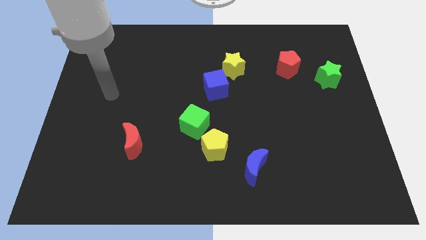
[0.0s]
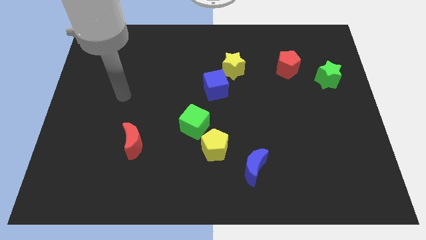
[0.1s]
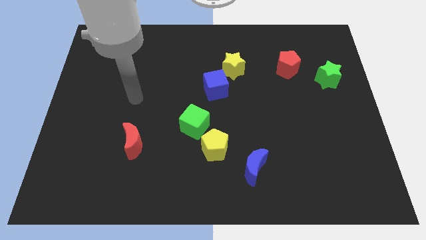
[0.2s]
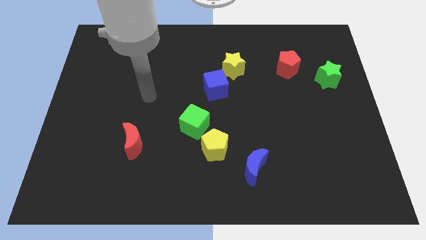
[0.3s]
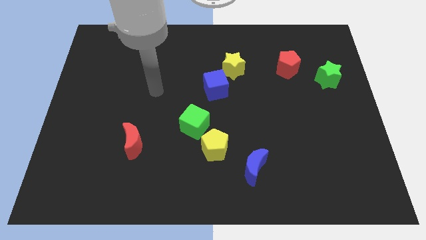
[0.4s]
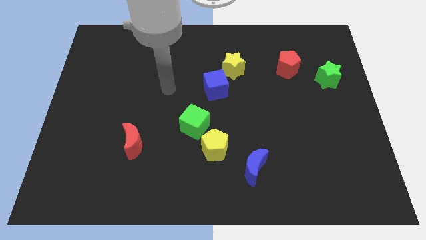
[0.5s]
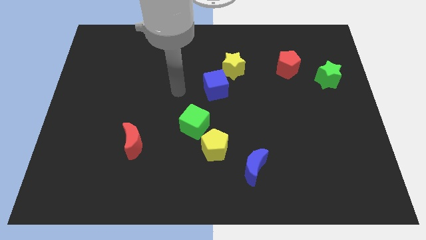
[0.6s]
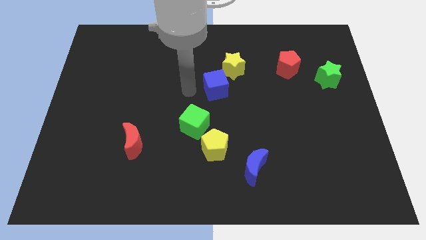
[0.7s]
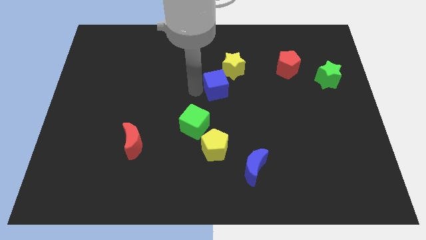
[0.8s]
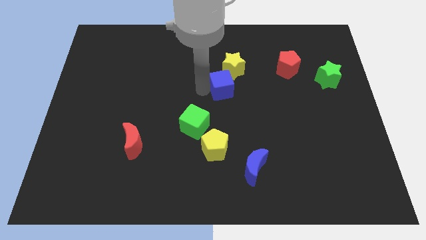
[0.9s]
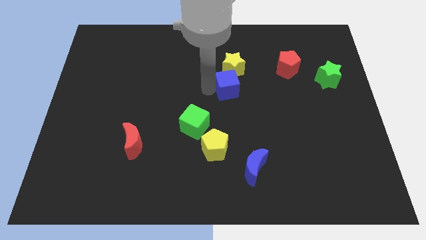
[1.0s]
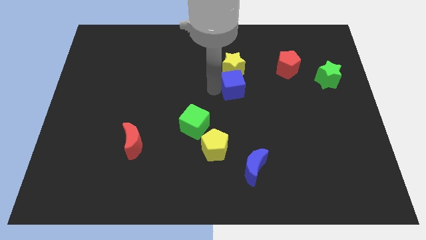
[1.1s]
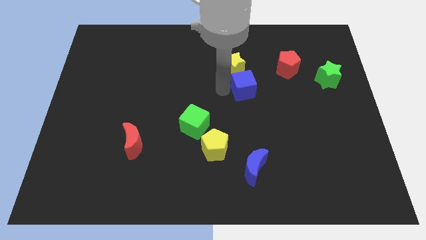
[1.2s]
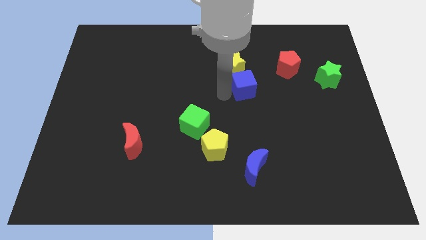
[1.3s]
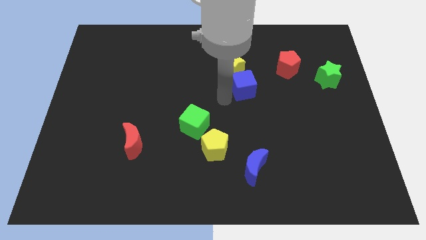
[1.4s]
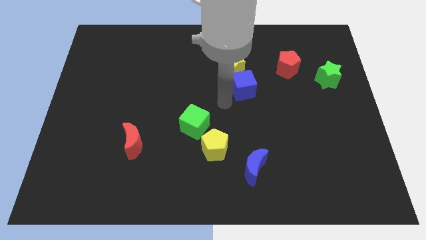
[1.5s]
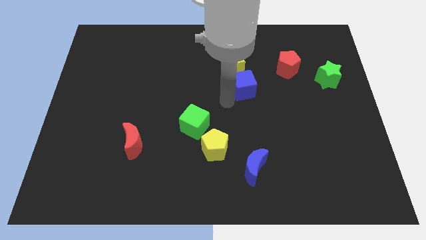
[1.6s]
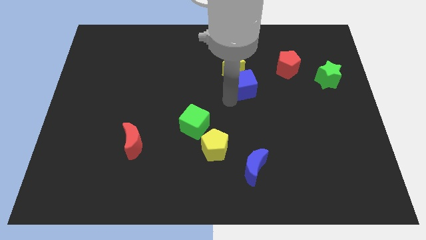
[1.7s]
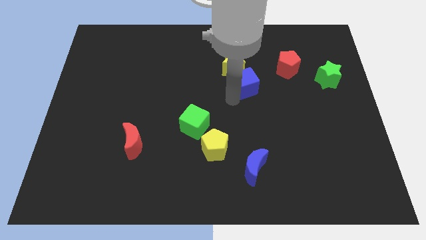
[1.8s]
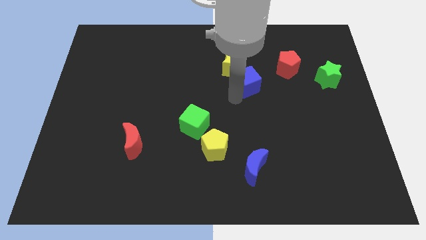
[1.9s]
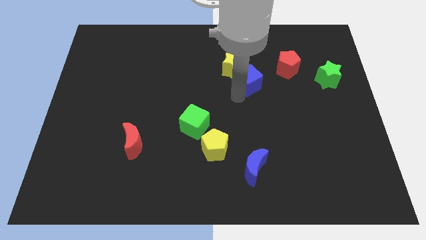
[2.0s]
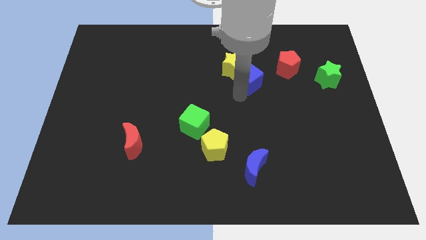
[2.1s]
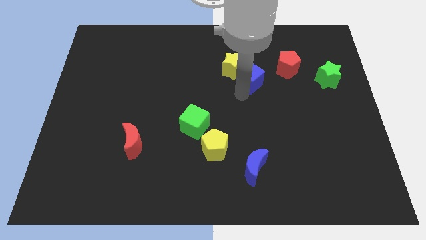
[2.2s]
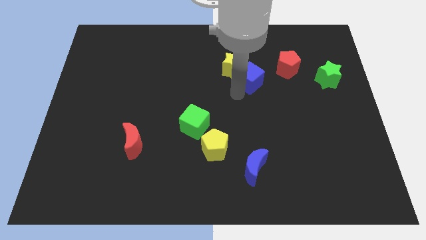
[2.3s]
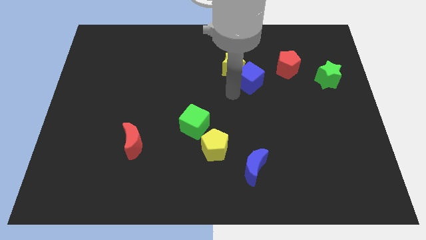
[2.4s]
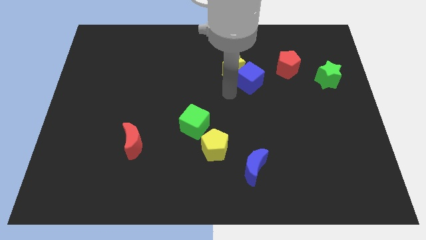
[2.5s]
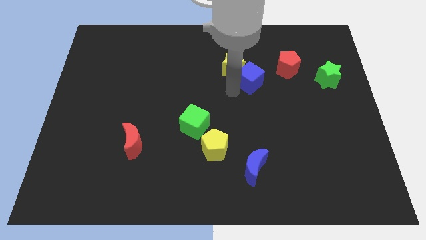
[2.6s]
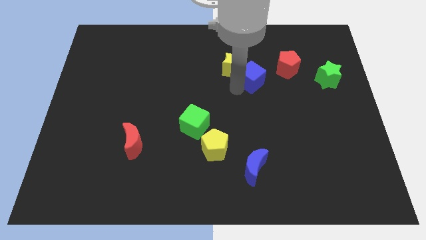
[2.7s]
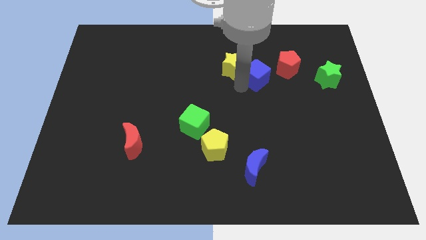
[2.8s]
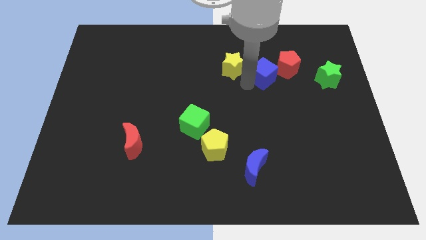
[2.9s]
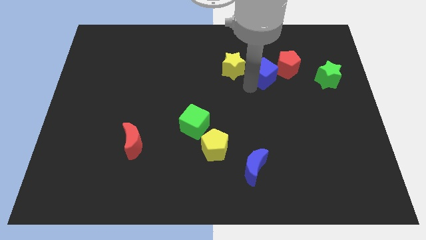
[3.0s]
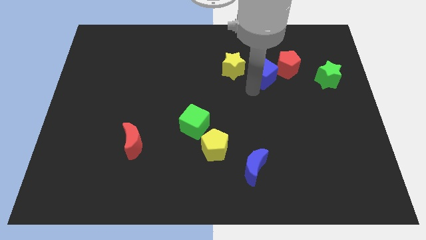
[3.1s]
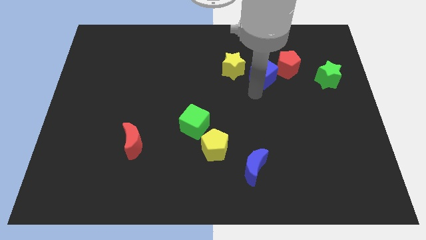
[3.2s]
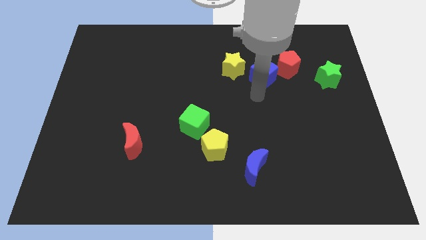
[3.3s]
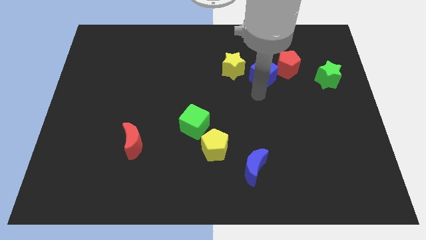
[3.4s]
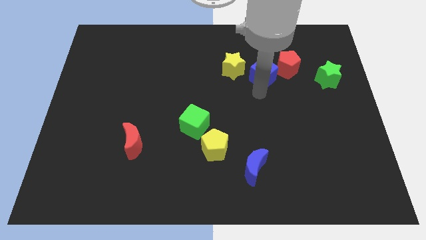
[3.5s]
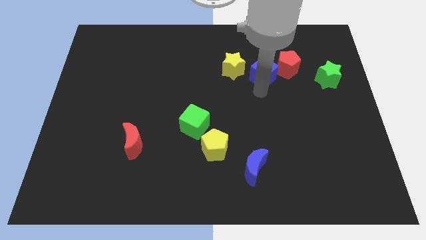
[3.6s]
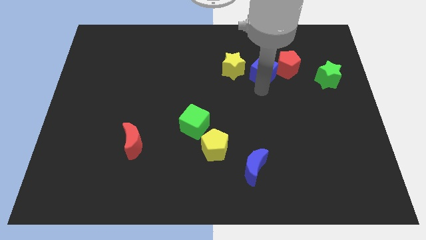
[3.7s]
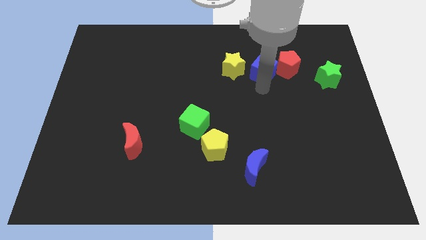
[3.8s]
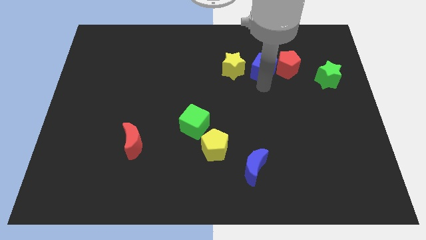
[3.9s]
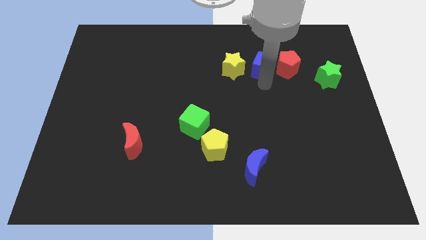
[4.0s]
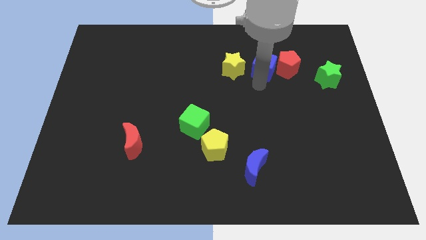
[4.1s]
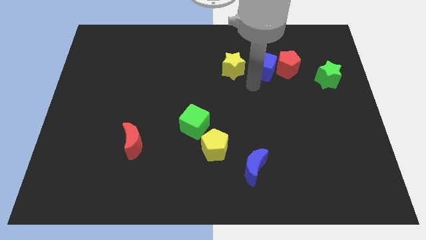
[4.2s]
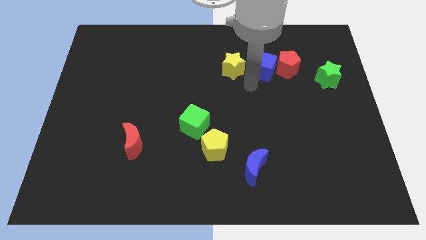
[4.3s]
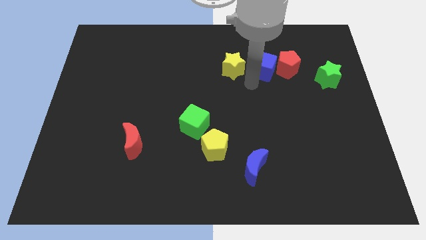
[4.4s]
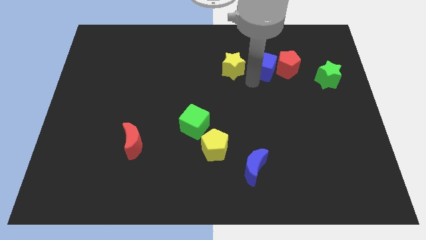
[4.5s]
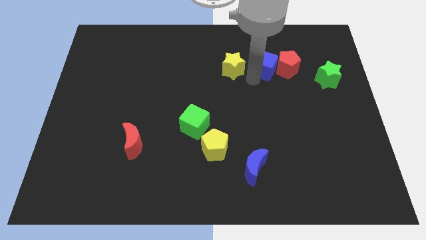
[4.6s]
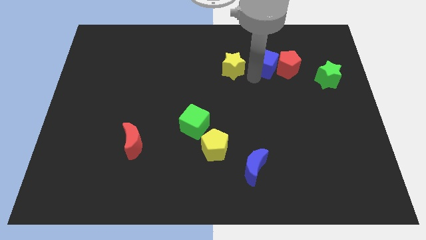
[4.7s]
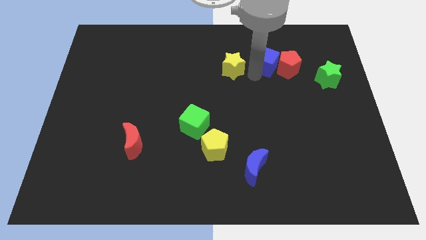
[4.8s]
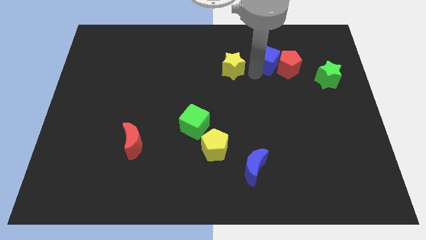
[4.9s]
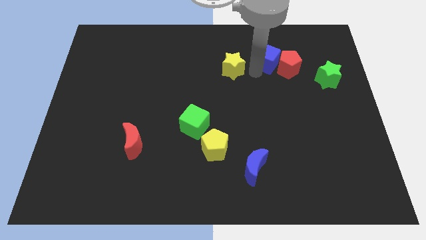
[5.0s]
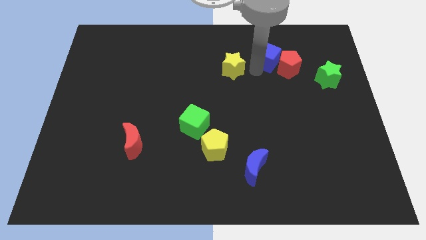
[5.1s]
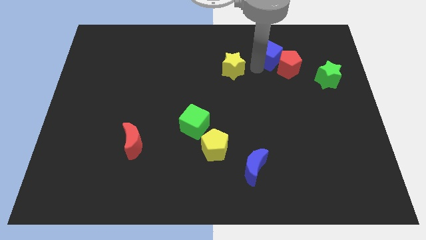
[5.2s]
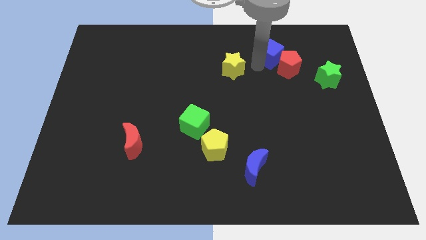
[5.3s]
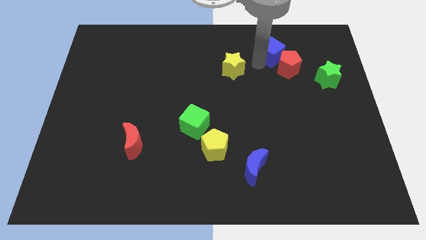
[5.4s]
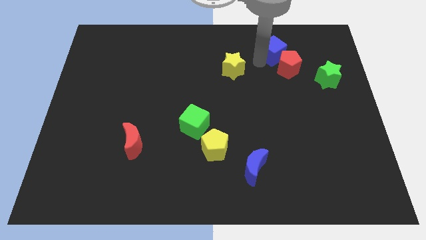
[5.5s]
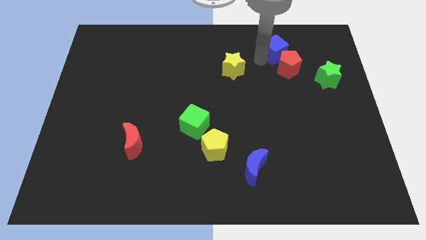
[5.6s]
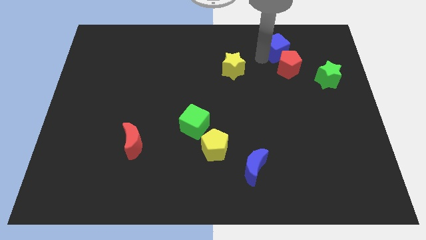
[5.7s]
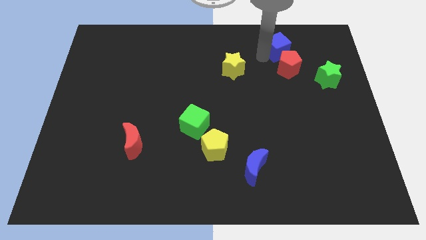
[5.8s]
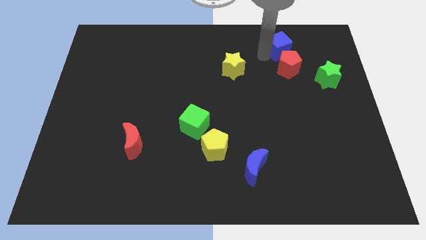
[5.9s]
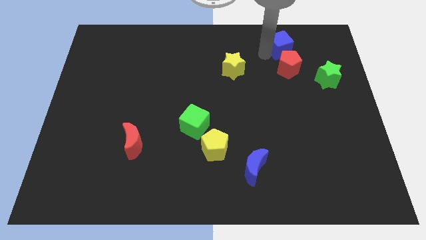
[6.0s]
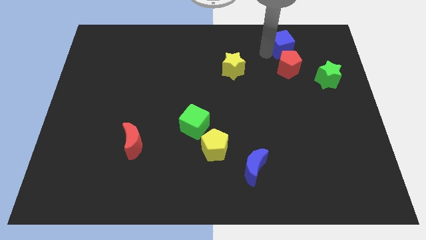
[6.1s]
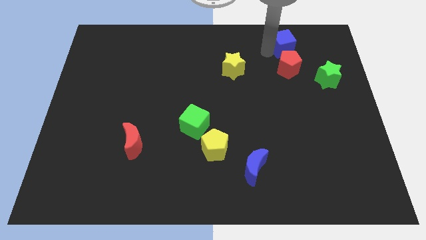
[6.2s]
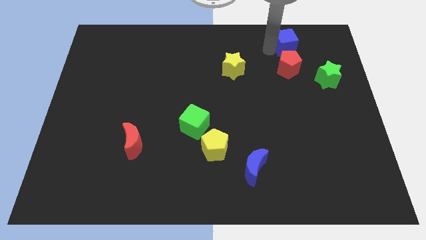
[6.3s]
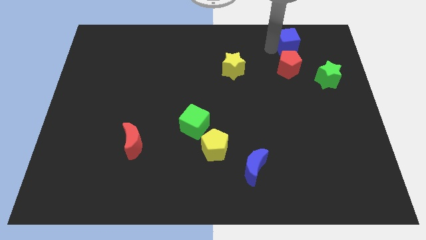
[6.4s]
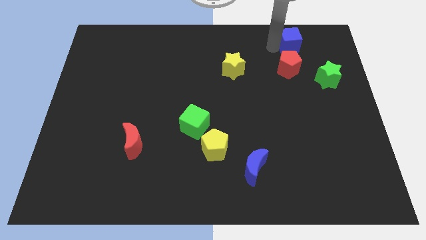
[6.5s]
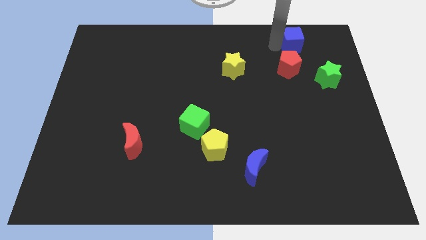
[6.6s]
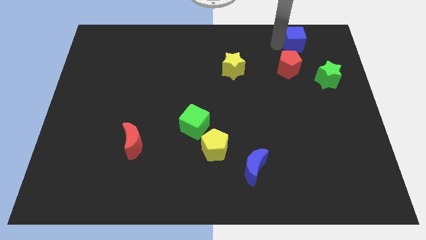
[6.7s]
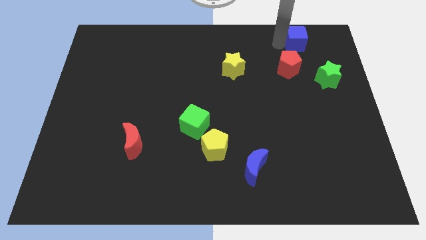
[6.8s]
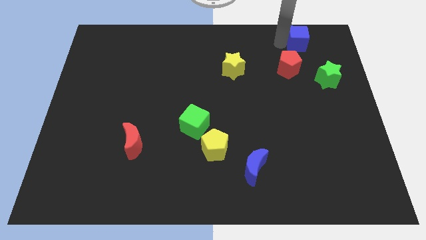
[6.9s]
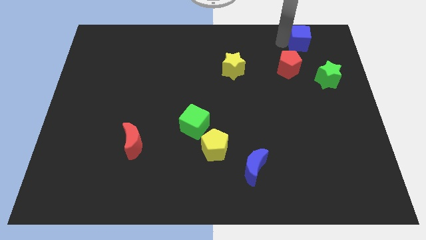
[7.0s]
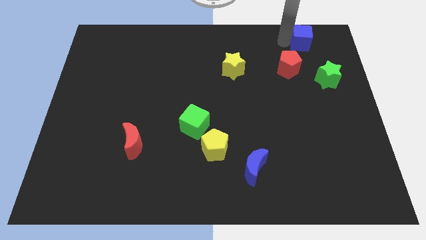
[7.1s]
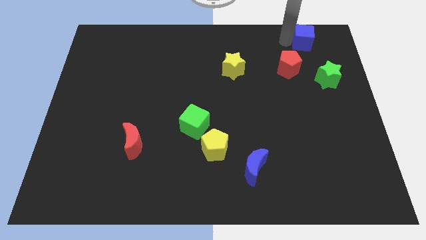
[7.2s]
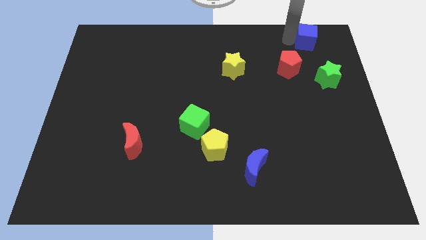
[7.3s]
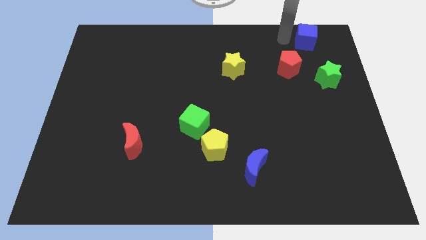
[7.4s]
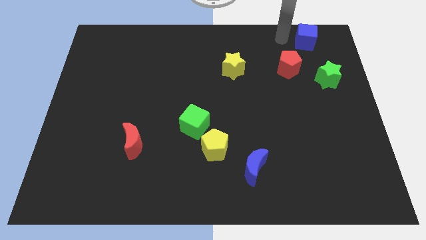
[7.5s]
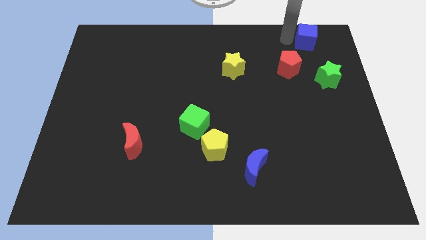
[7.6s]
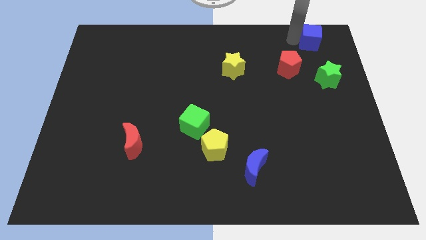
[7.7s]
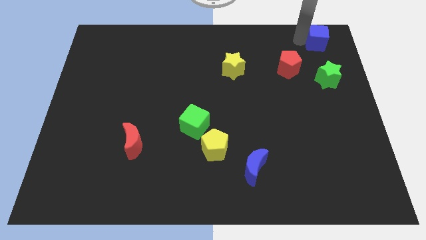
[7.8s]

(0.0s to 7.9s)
put the blue cube to the top right of the board
